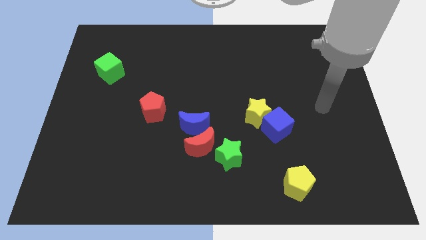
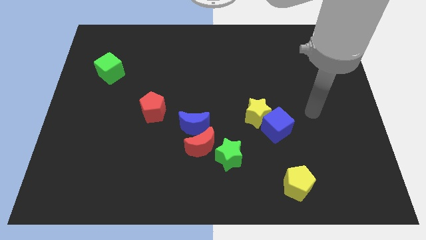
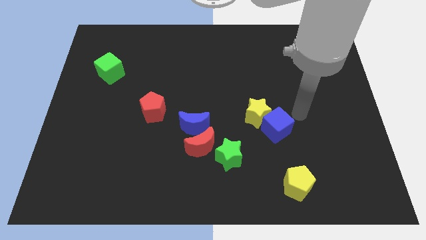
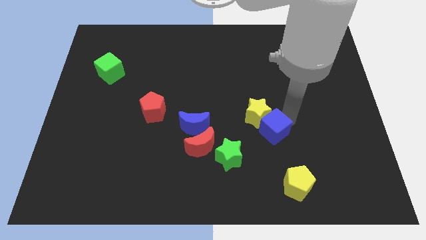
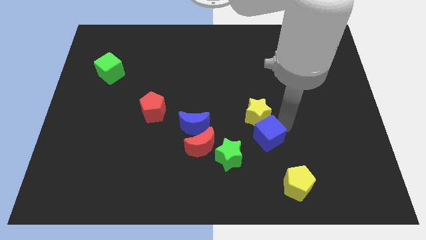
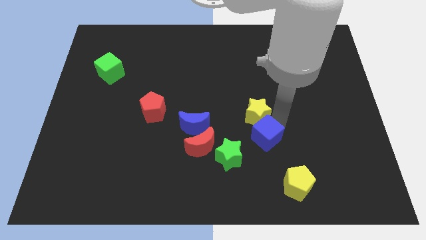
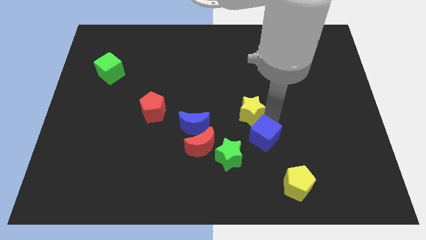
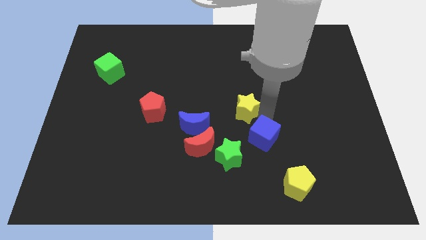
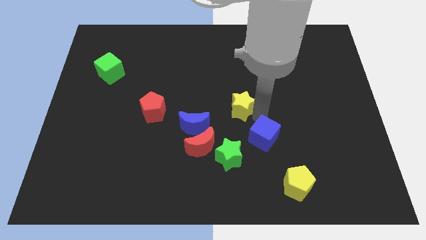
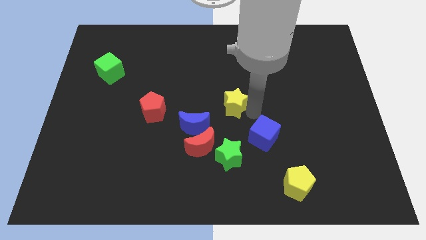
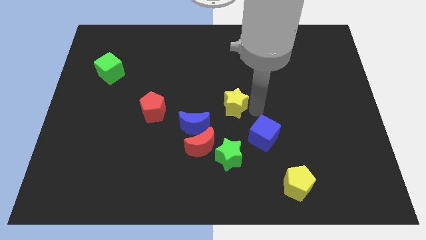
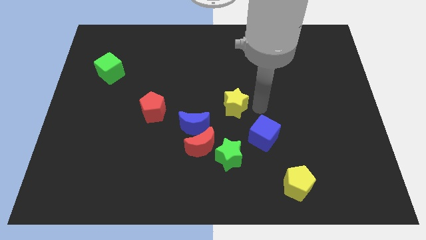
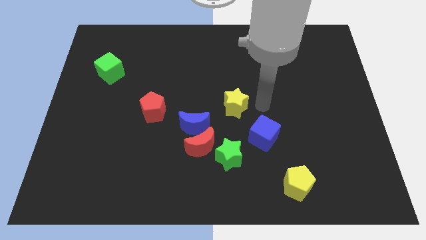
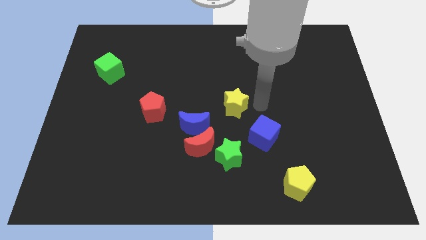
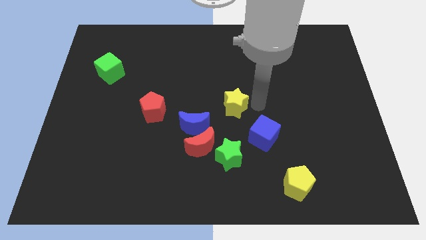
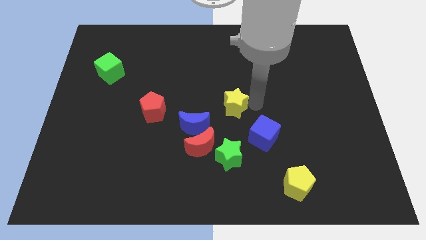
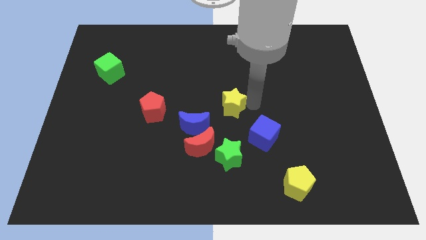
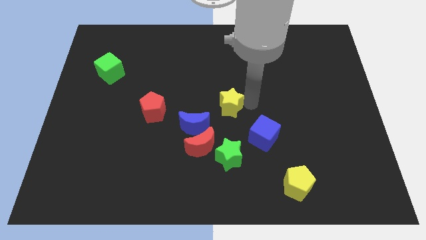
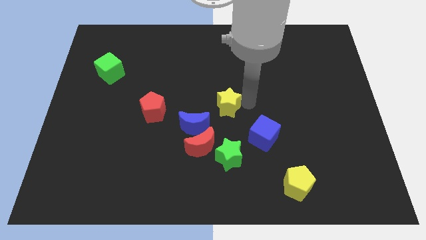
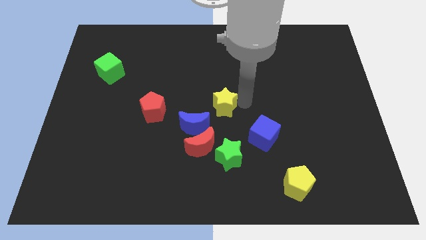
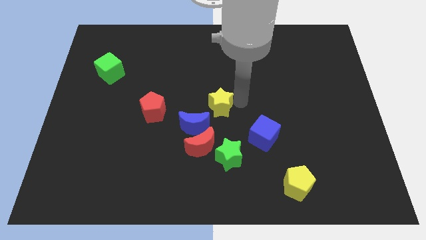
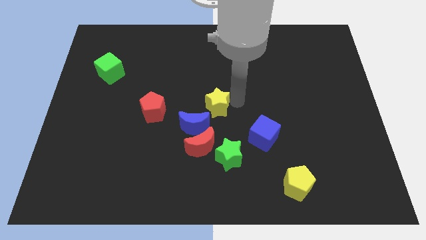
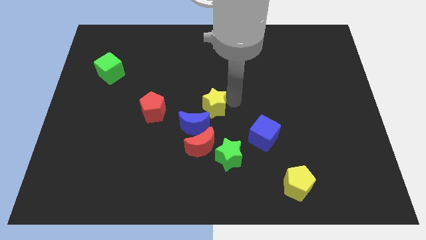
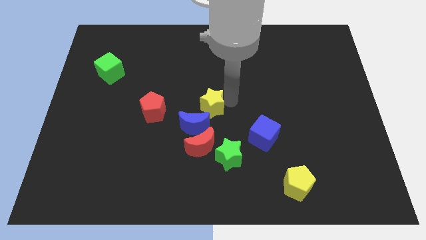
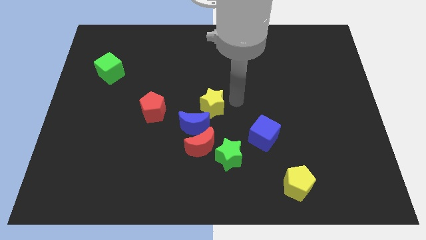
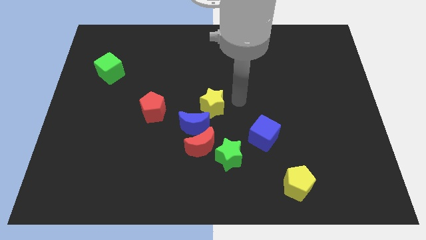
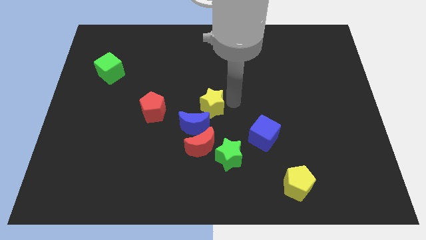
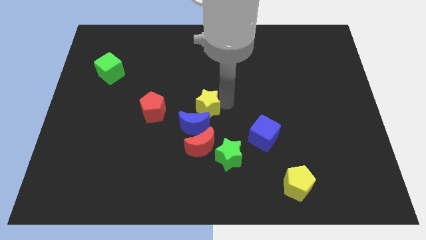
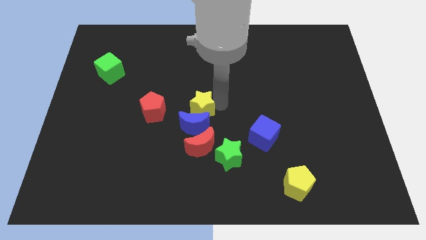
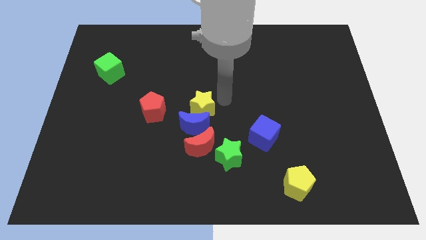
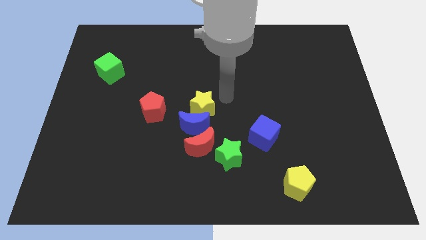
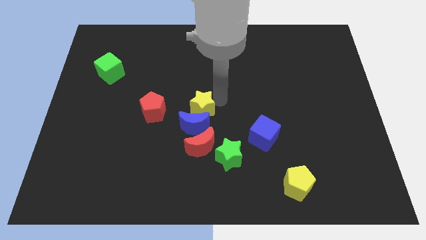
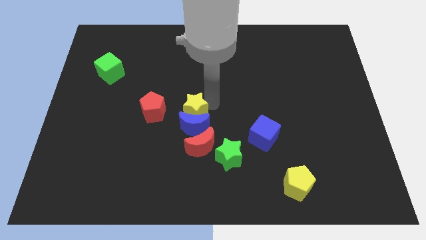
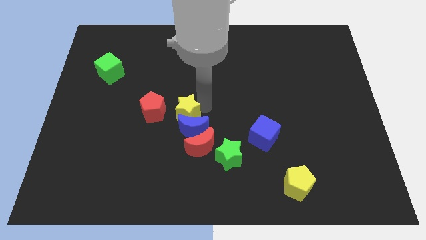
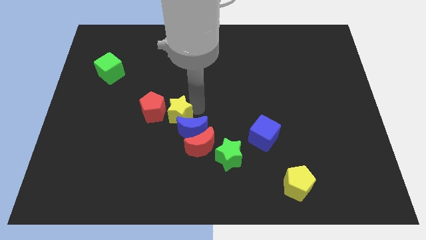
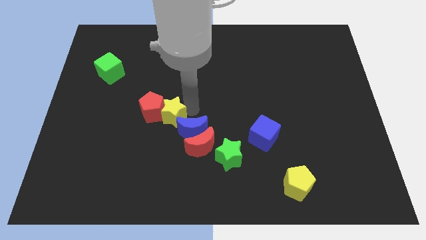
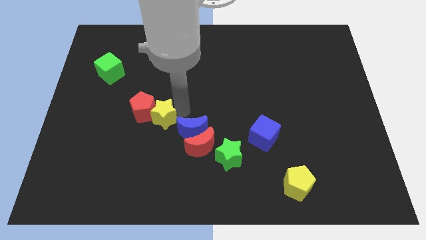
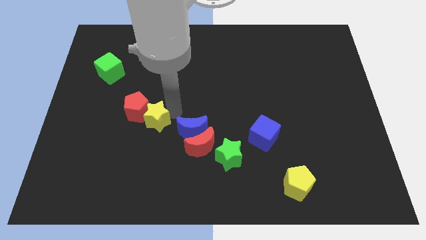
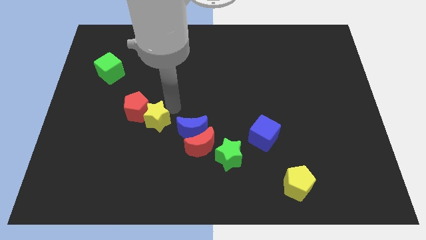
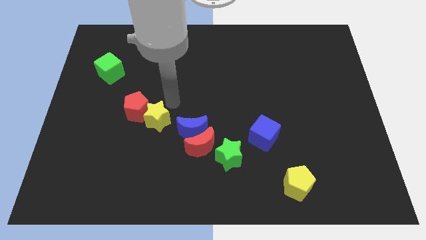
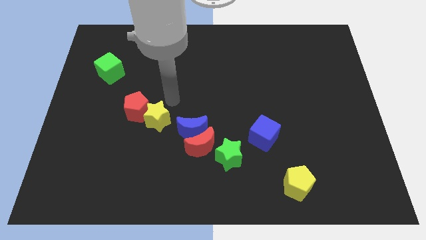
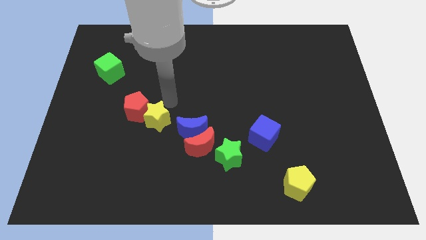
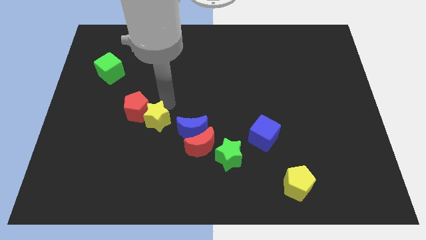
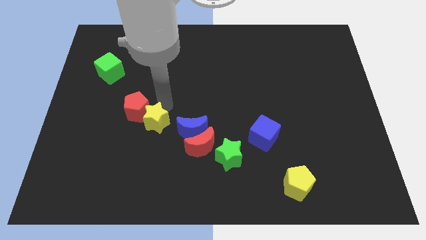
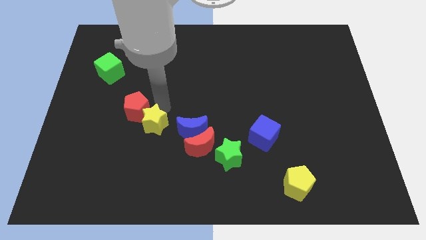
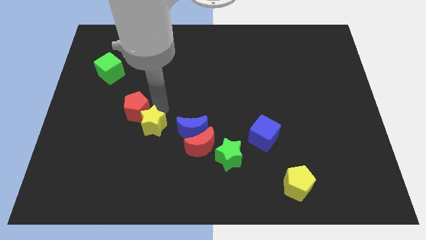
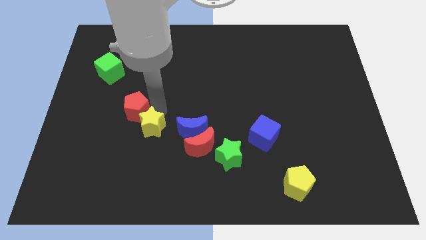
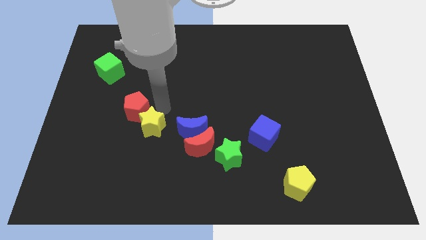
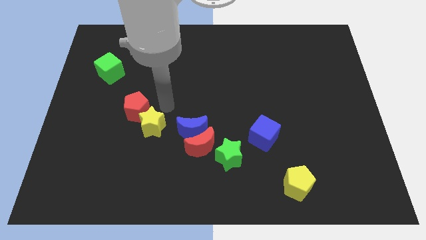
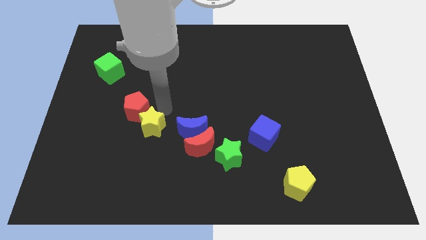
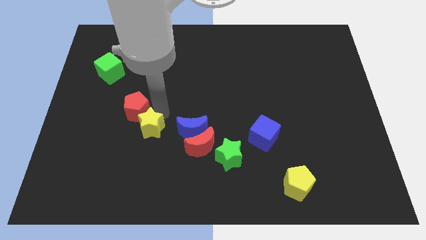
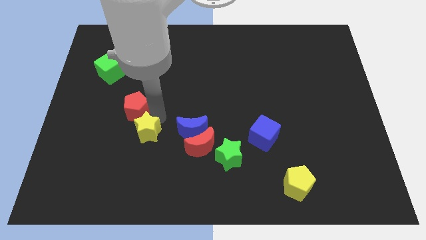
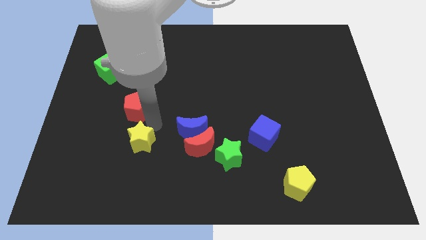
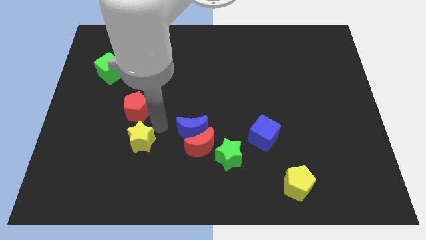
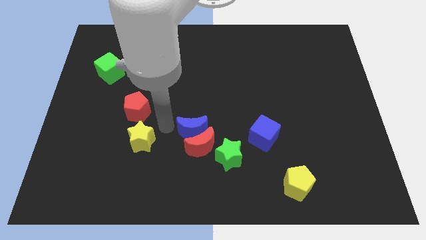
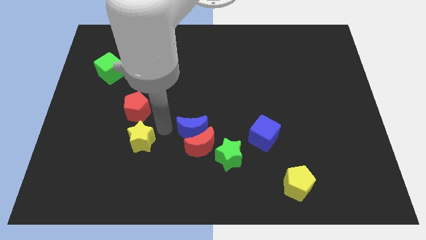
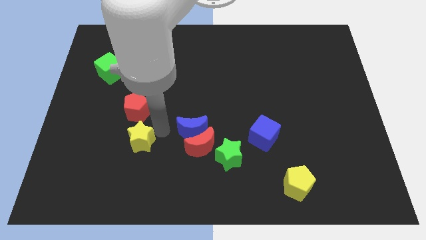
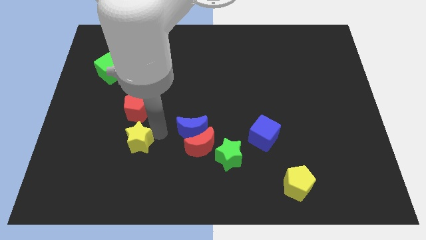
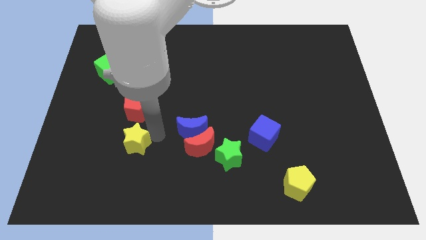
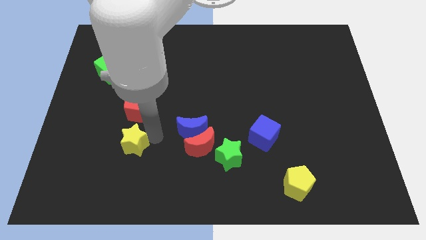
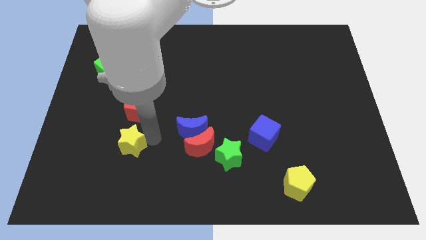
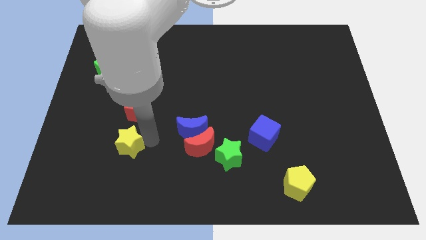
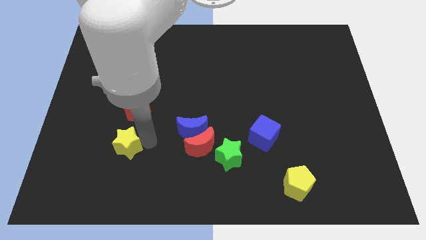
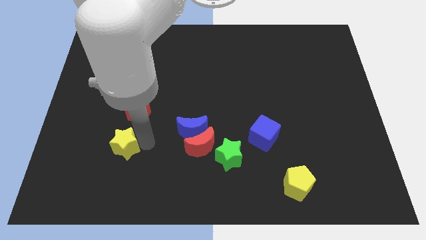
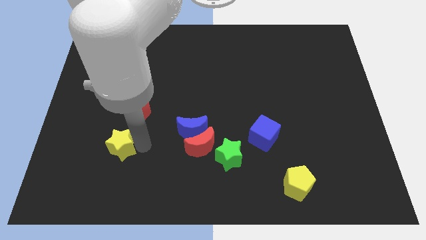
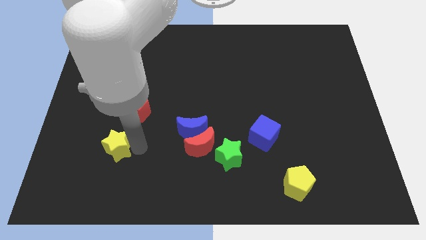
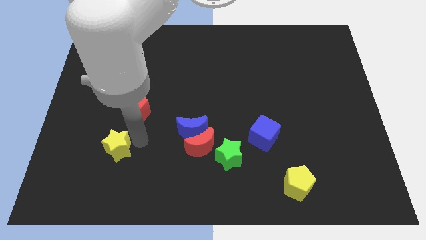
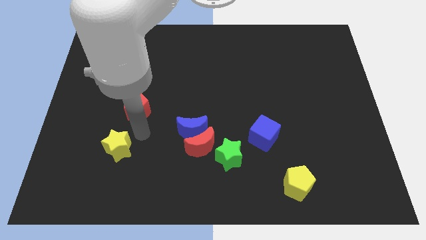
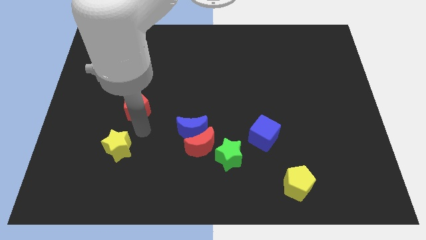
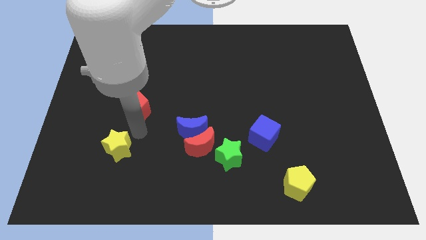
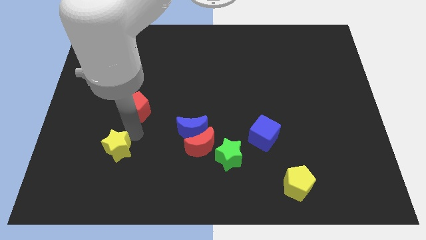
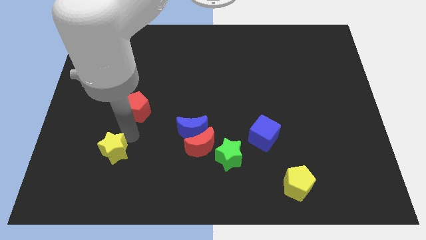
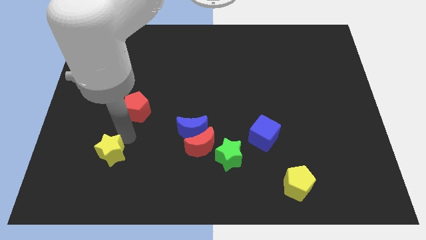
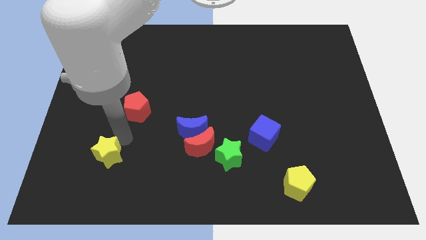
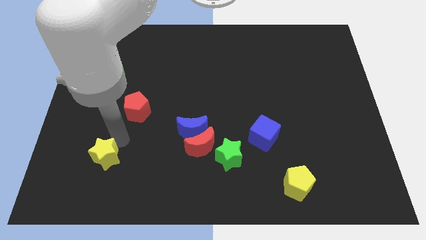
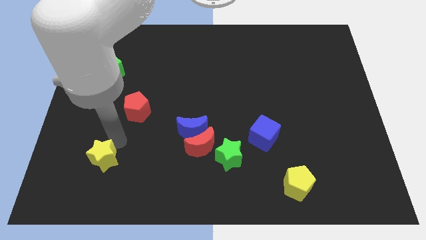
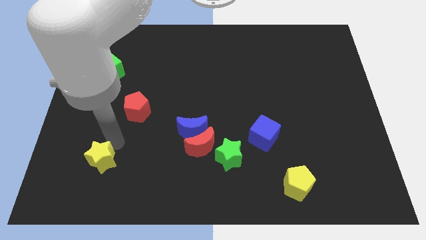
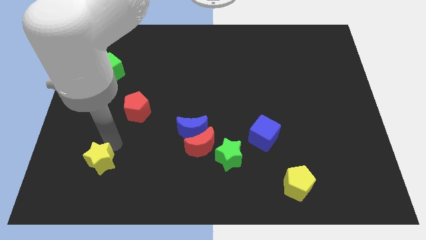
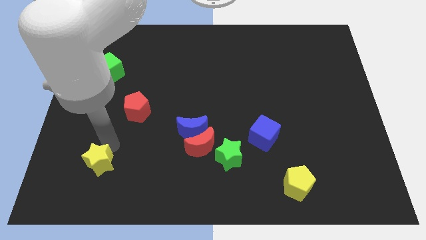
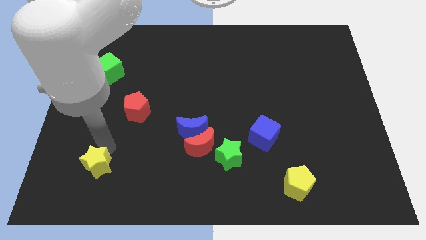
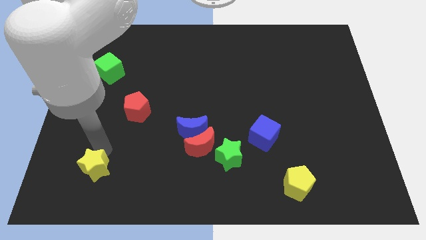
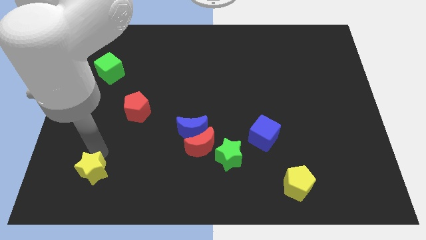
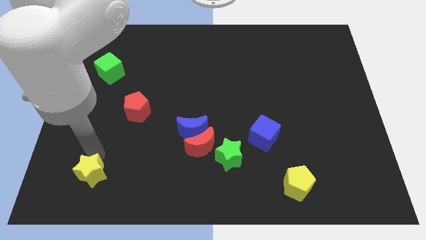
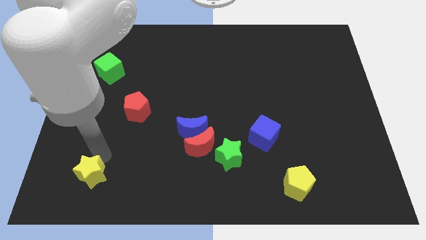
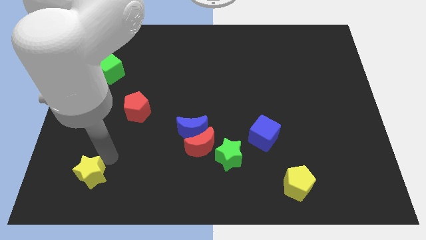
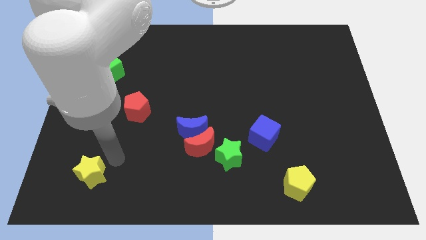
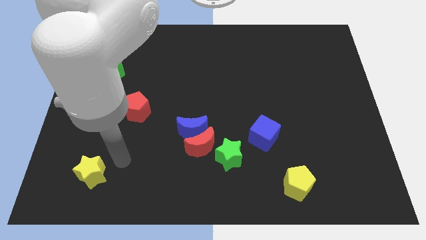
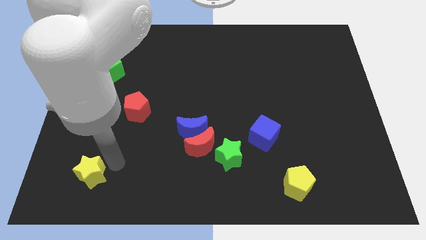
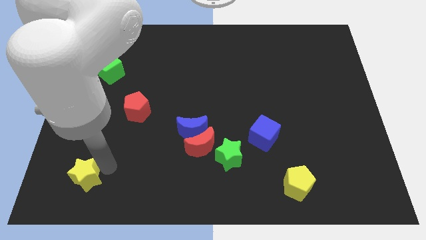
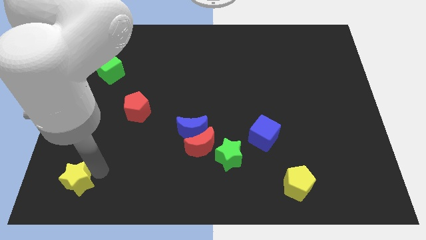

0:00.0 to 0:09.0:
put the yellow star to the bottom left
